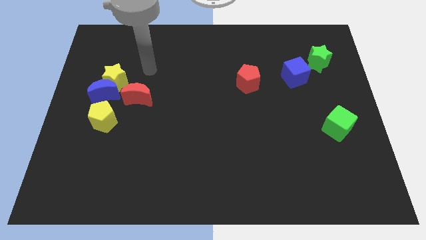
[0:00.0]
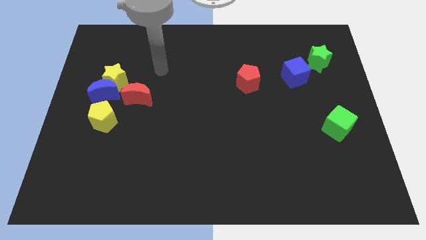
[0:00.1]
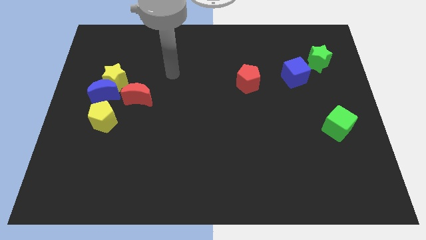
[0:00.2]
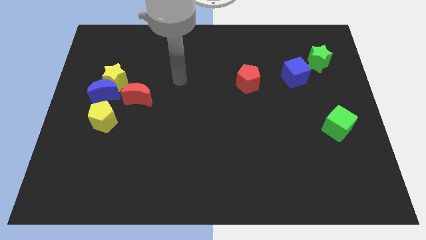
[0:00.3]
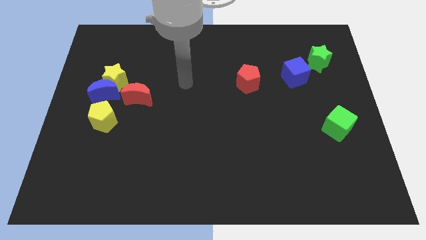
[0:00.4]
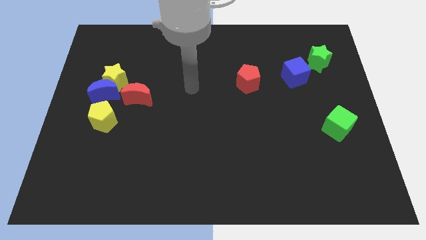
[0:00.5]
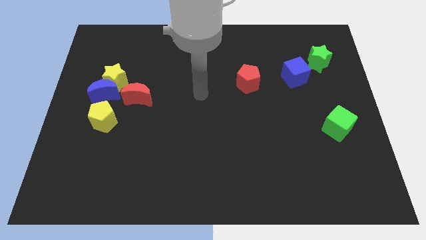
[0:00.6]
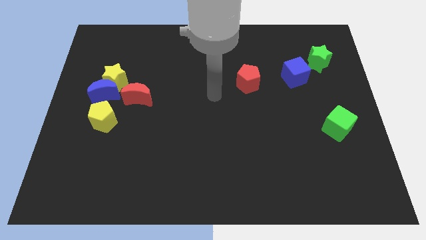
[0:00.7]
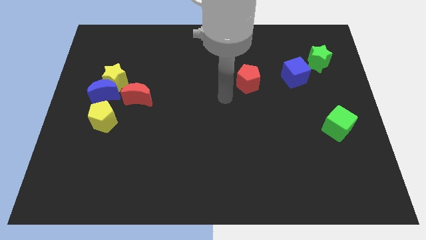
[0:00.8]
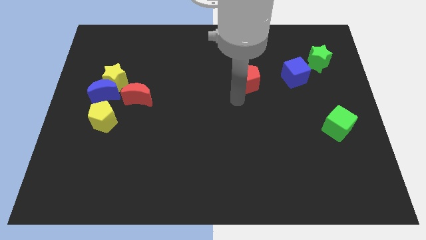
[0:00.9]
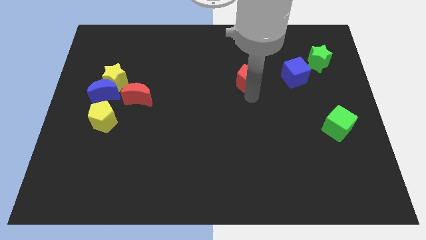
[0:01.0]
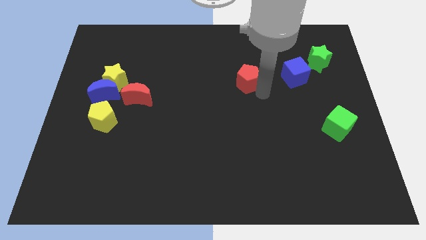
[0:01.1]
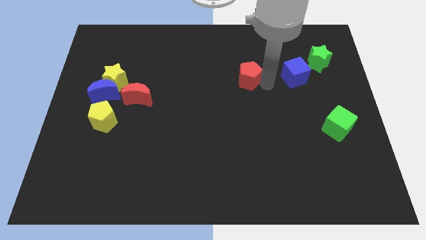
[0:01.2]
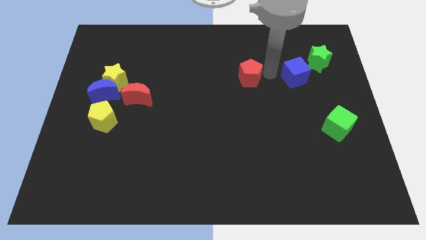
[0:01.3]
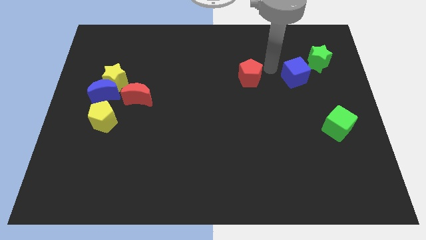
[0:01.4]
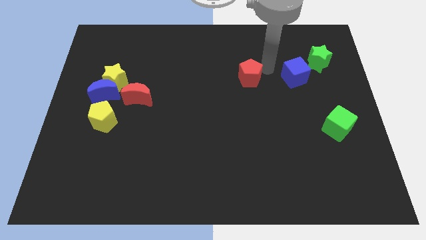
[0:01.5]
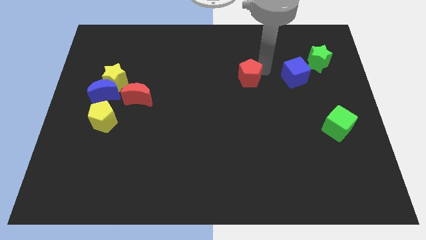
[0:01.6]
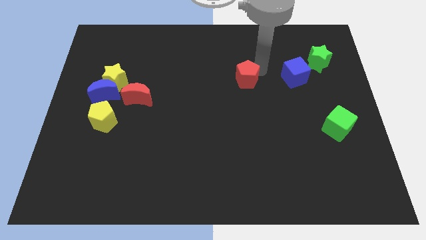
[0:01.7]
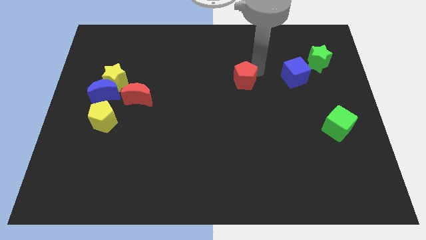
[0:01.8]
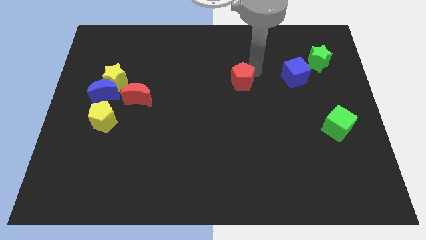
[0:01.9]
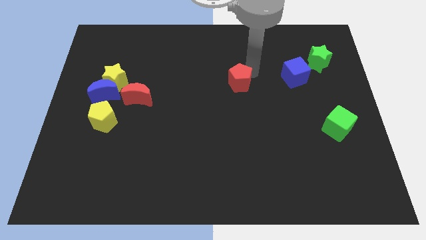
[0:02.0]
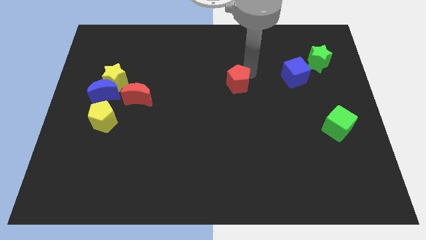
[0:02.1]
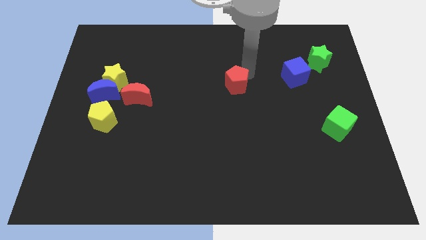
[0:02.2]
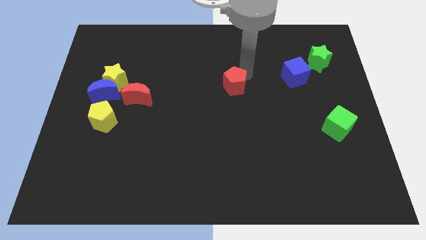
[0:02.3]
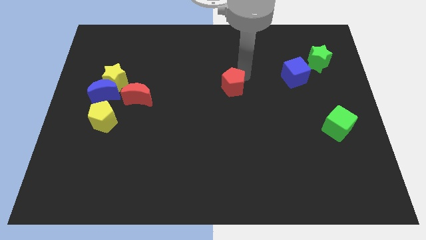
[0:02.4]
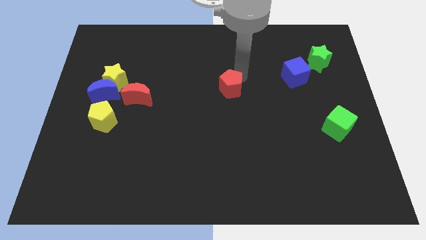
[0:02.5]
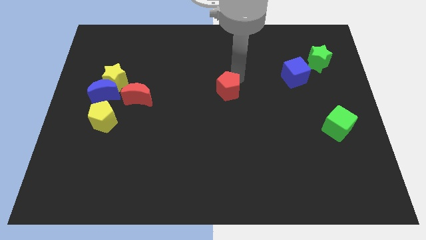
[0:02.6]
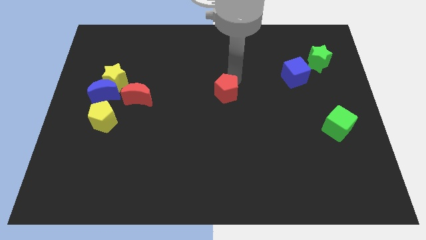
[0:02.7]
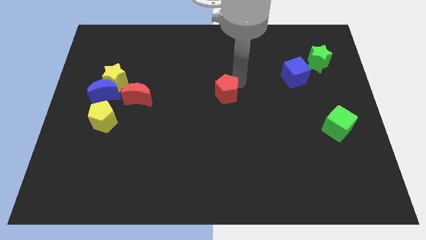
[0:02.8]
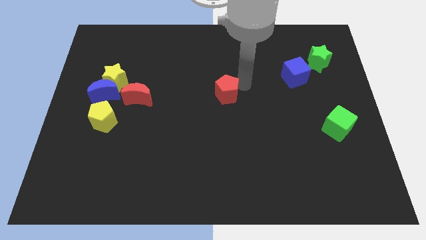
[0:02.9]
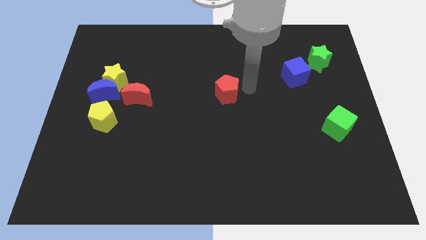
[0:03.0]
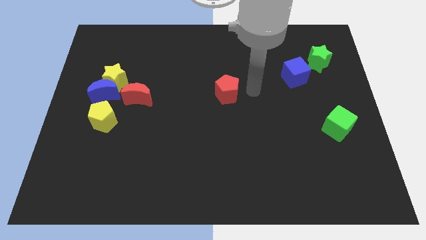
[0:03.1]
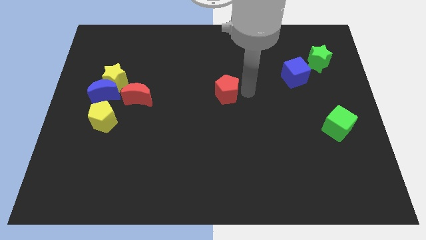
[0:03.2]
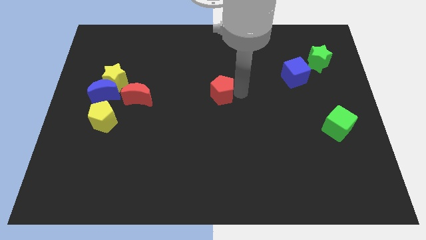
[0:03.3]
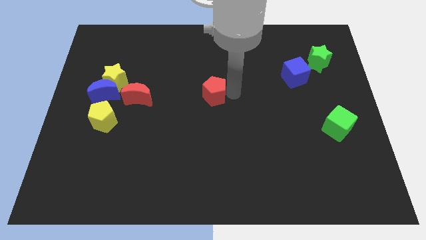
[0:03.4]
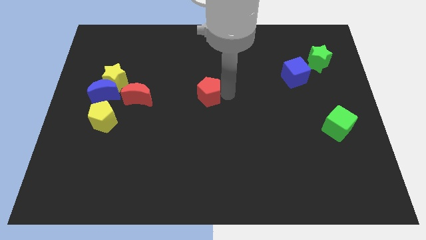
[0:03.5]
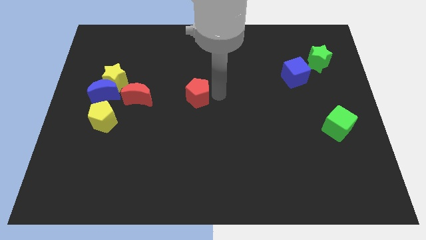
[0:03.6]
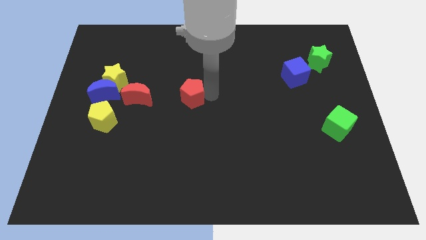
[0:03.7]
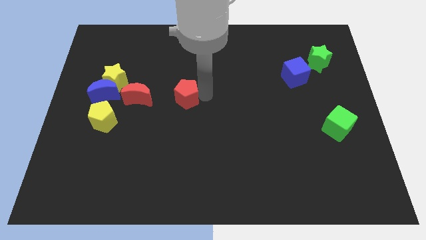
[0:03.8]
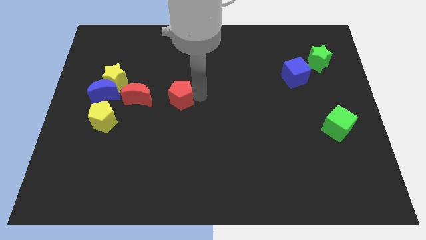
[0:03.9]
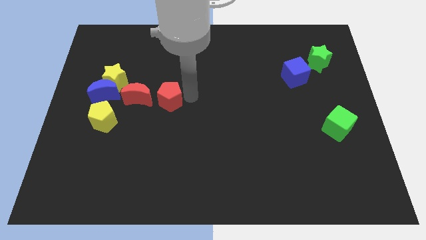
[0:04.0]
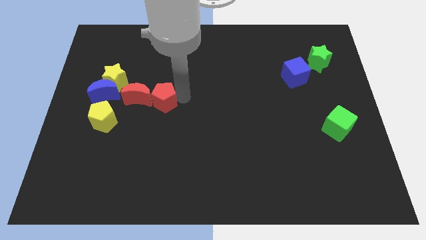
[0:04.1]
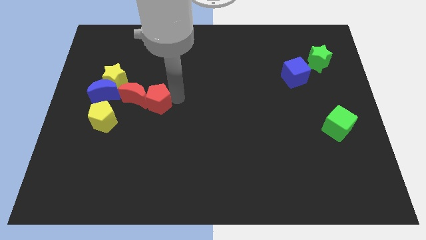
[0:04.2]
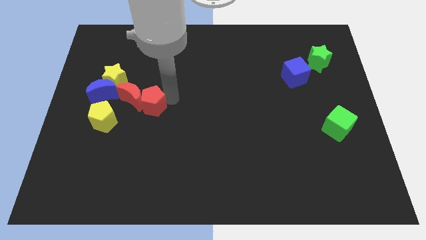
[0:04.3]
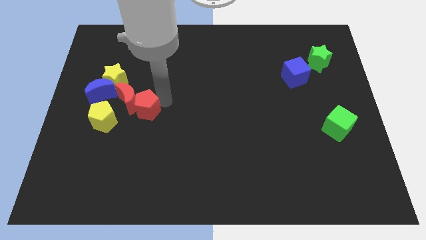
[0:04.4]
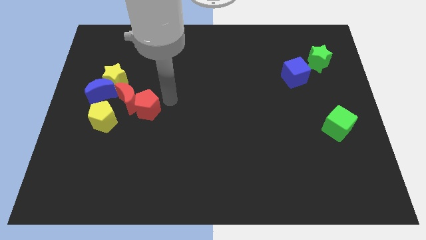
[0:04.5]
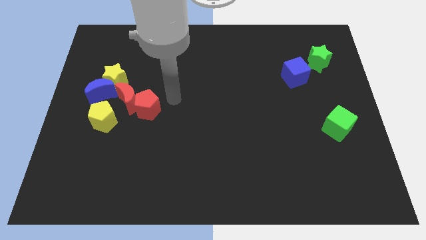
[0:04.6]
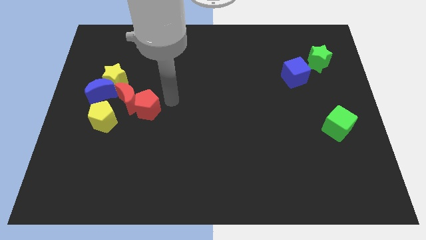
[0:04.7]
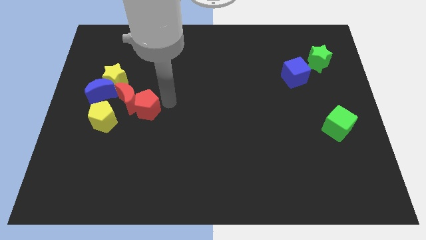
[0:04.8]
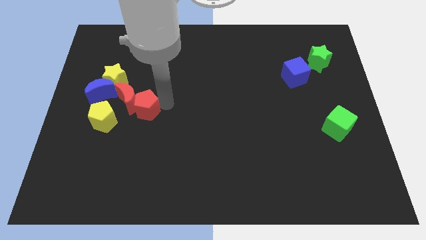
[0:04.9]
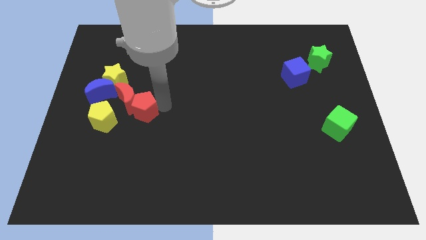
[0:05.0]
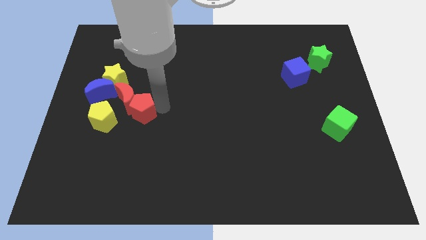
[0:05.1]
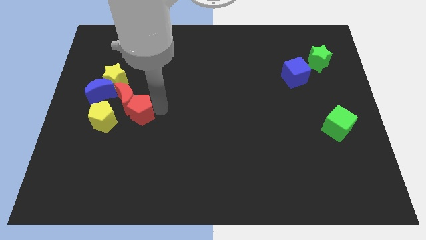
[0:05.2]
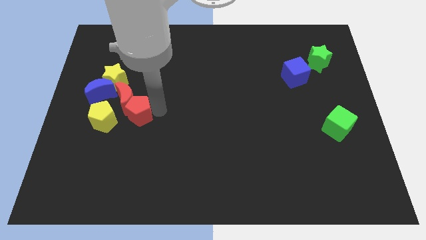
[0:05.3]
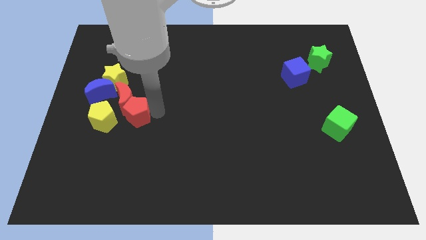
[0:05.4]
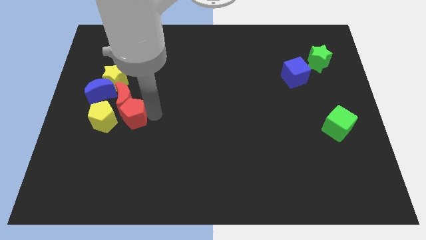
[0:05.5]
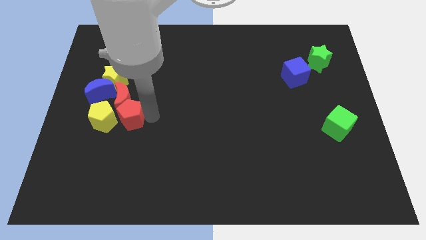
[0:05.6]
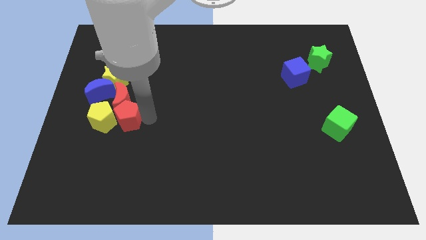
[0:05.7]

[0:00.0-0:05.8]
move the red pentagon next to the yellow pentagon
